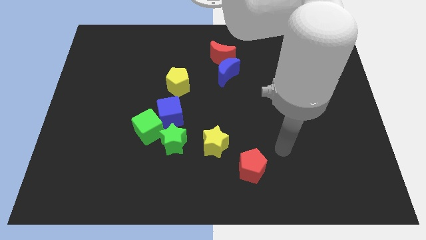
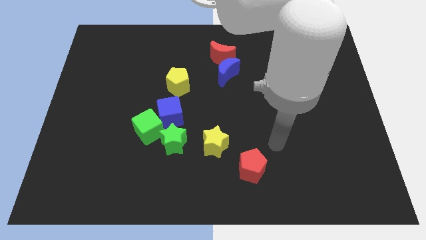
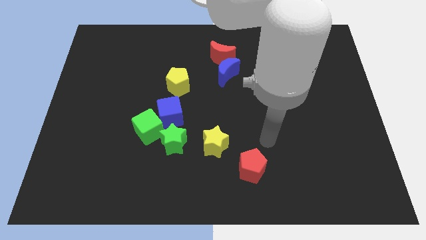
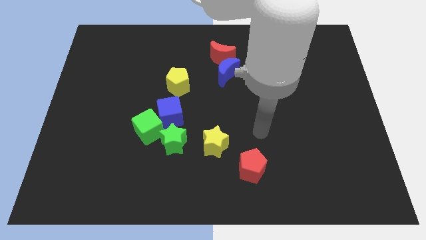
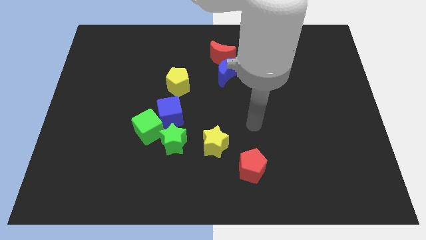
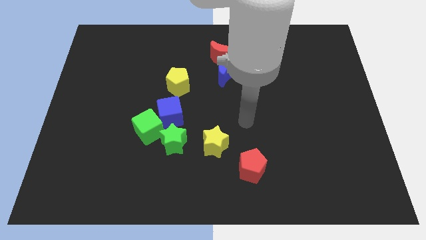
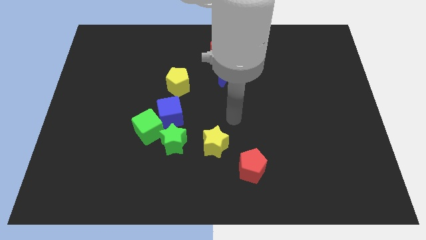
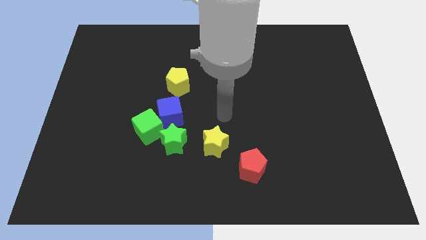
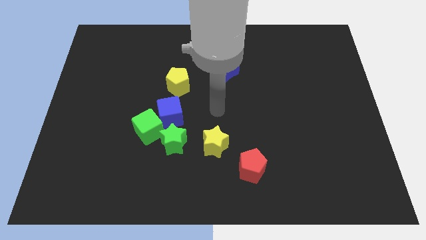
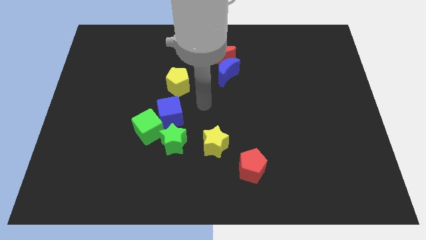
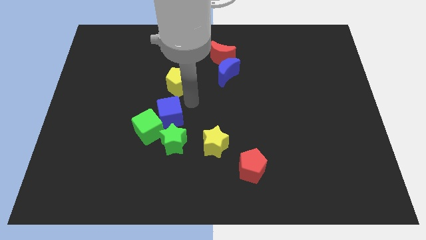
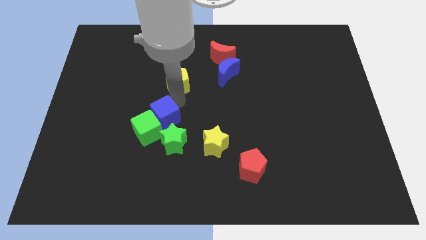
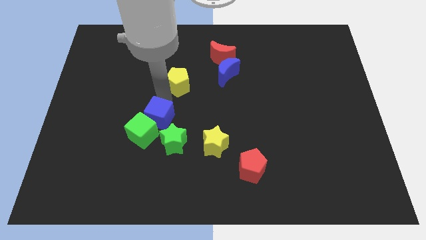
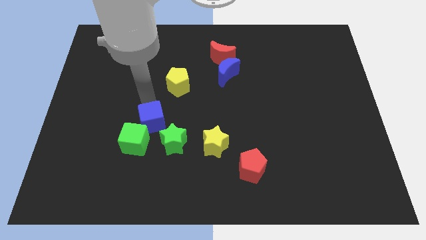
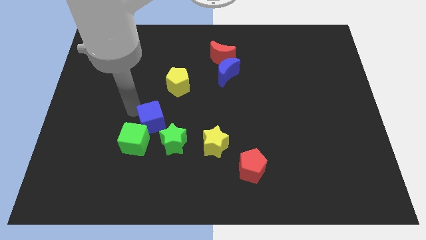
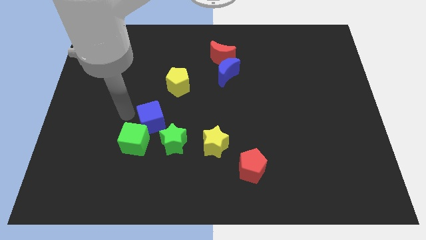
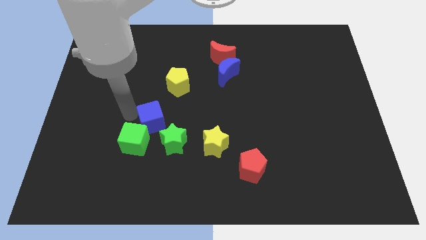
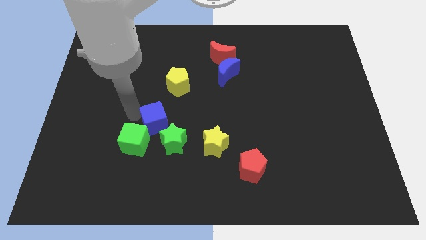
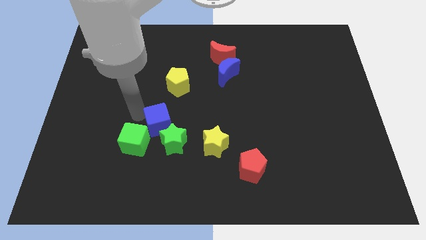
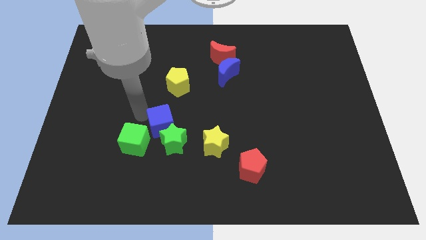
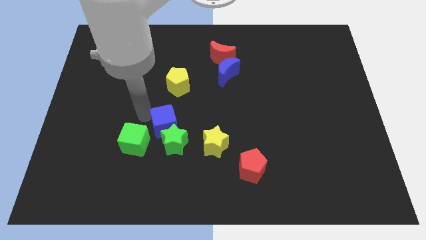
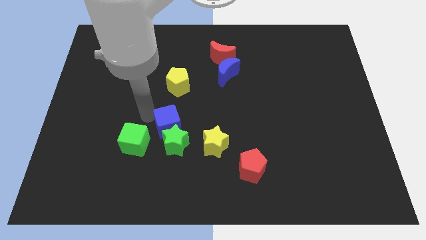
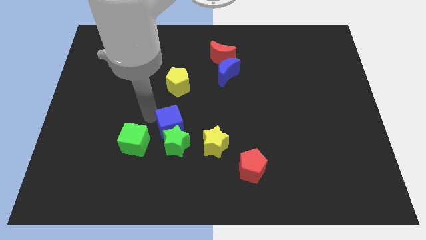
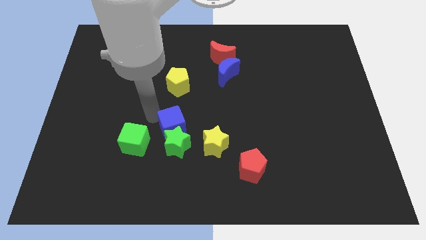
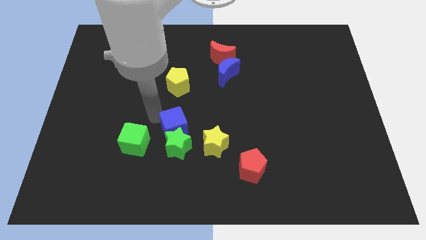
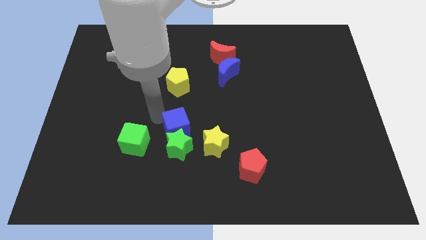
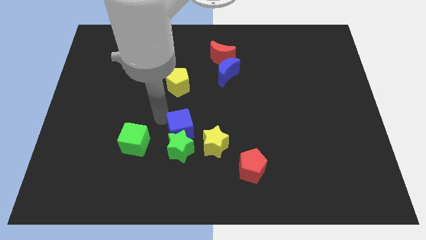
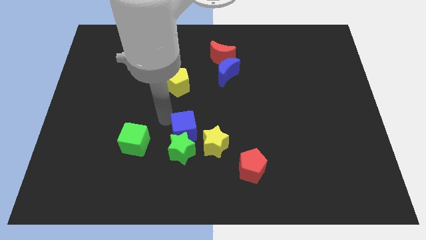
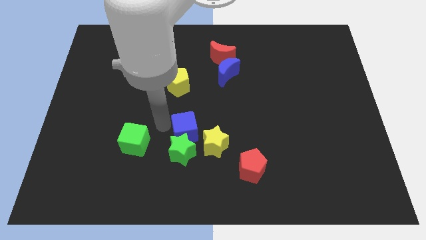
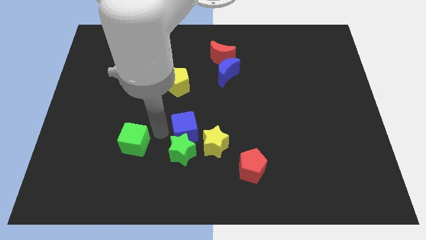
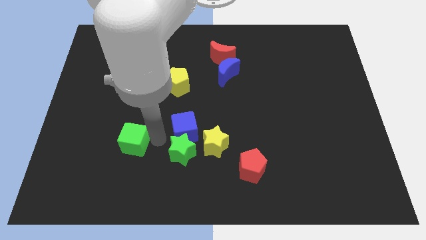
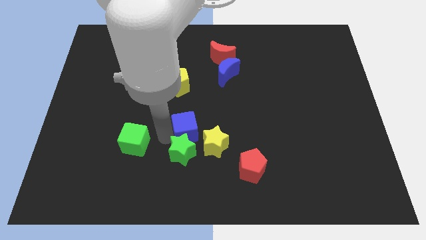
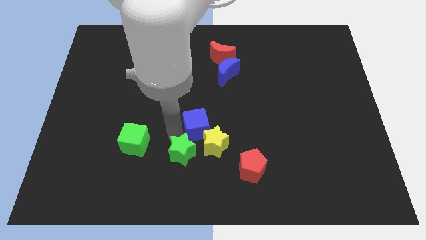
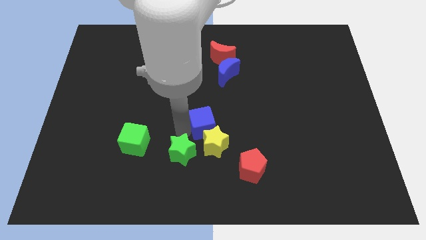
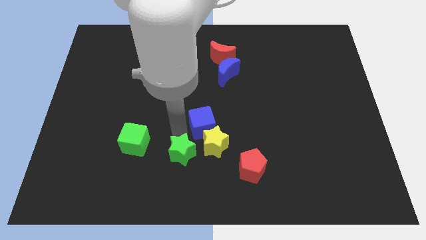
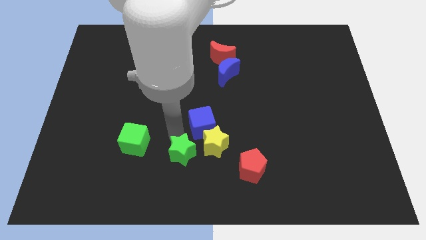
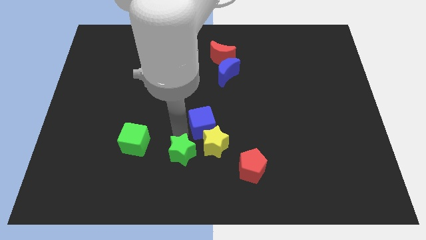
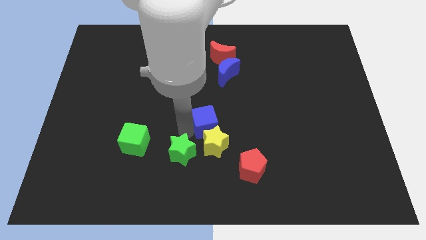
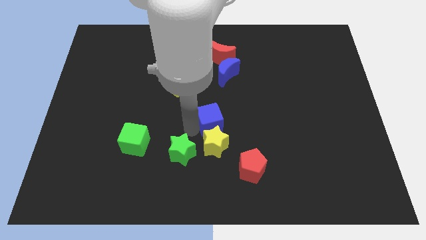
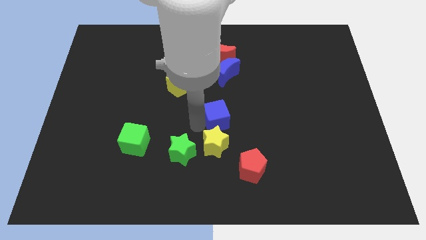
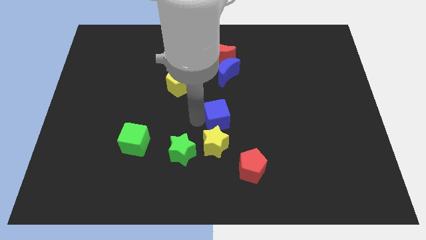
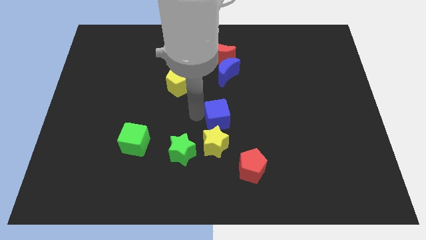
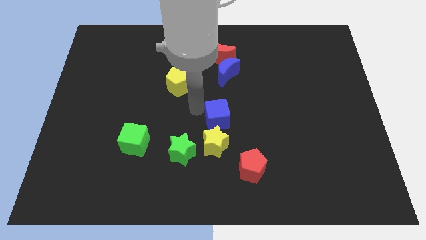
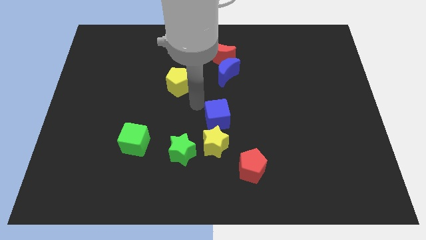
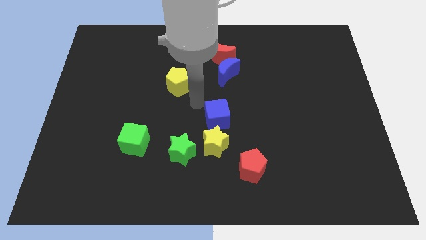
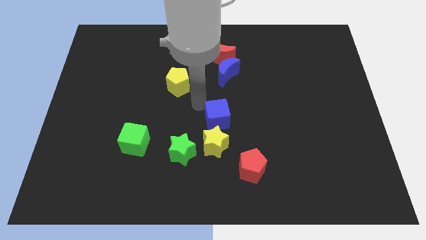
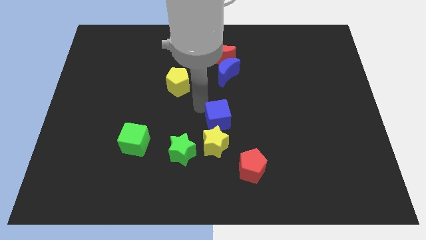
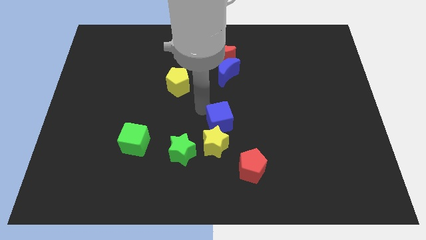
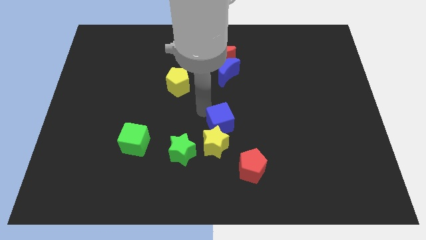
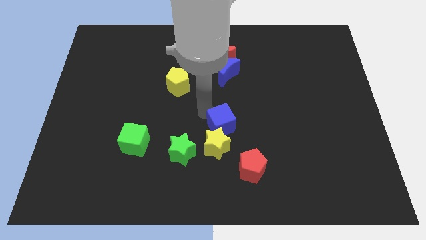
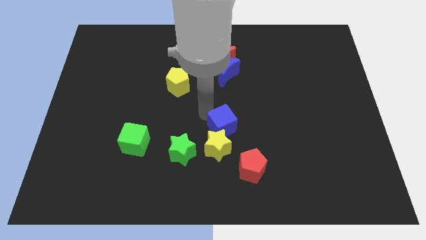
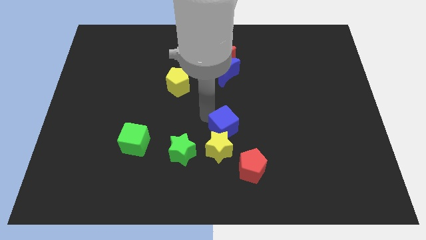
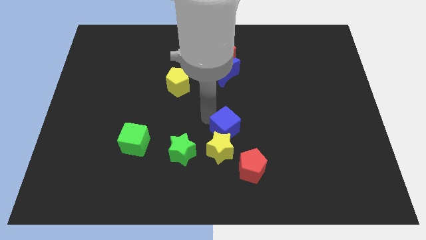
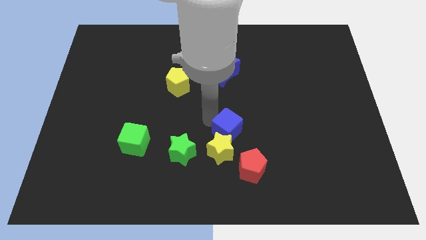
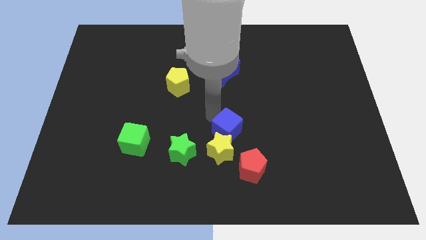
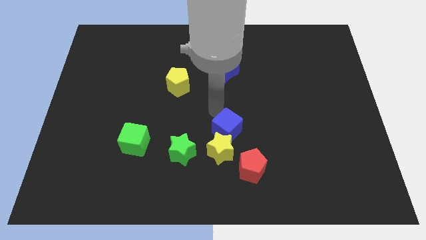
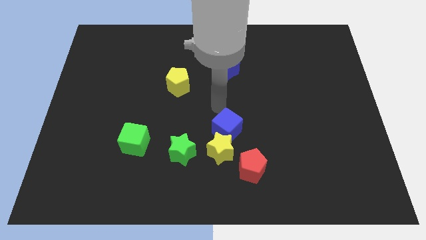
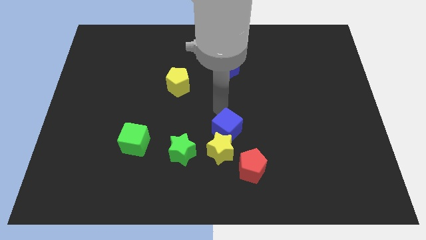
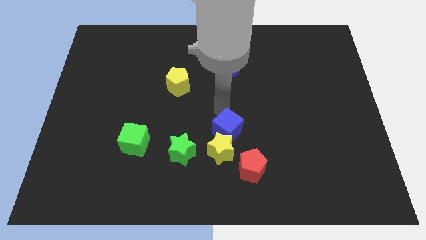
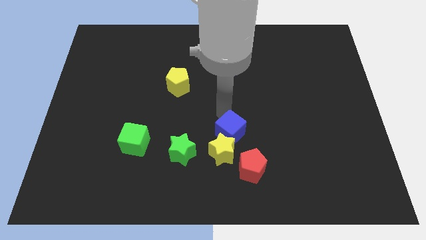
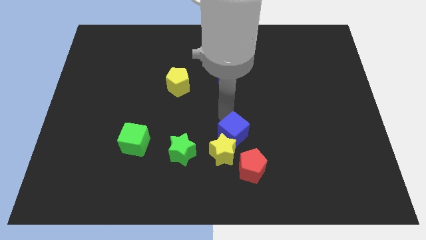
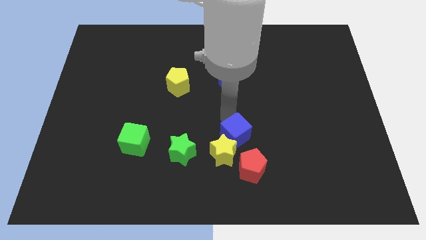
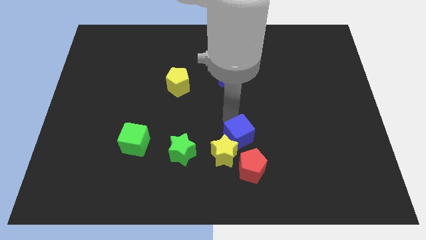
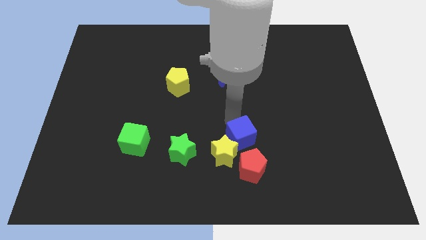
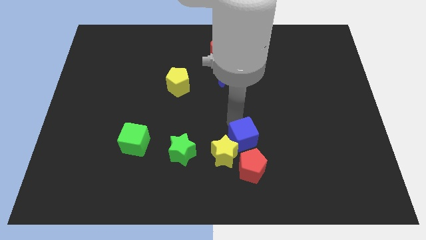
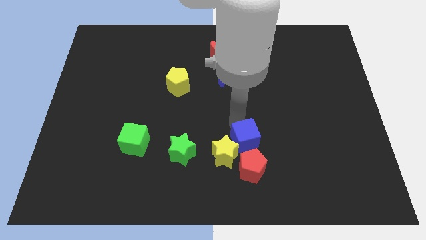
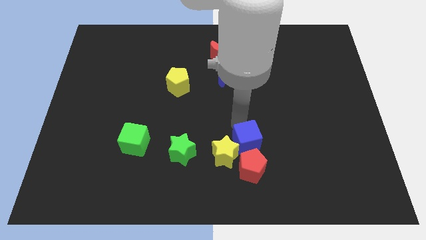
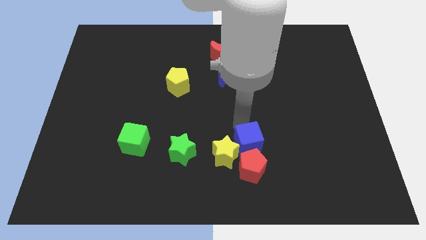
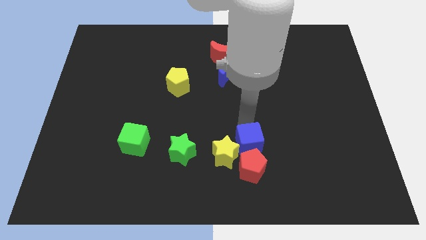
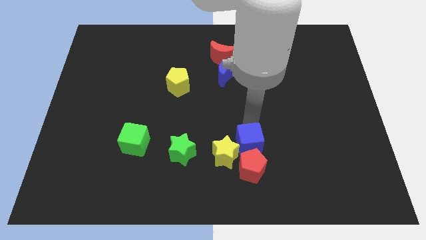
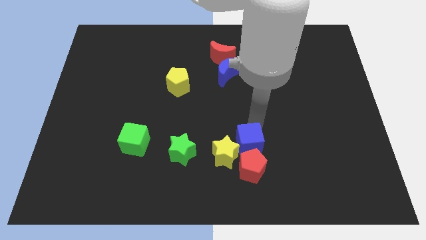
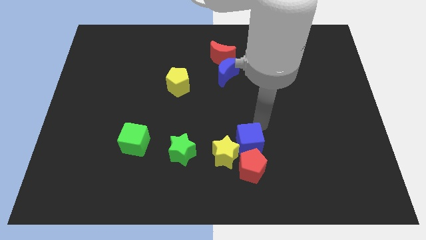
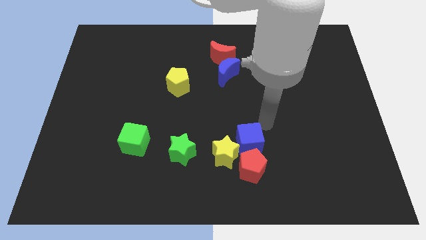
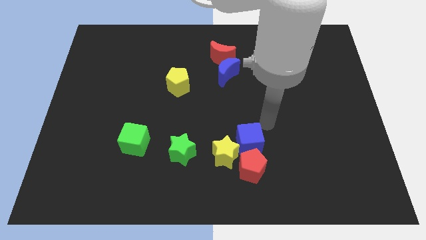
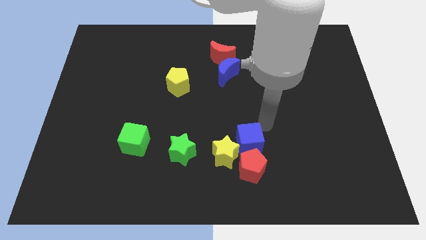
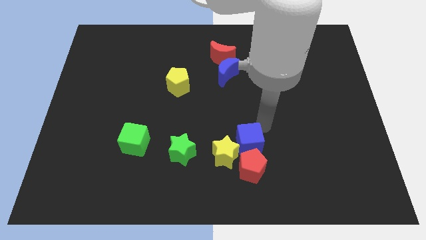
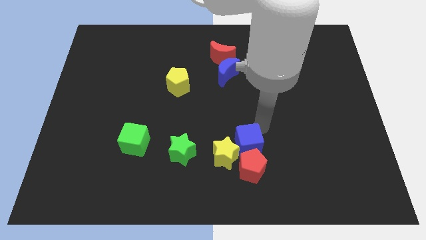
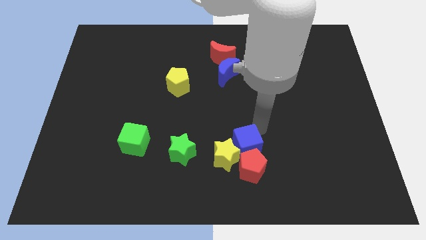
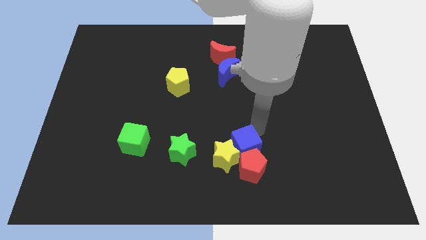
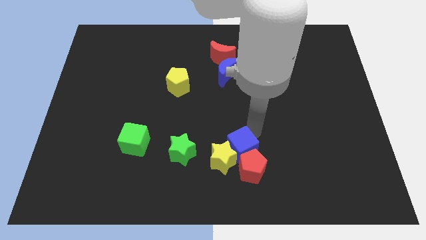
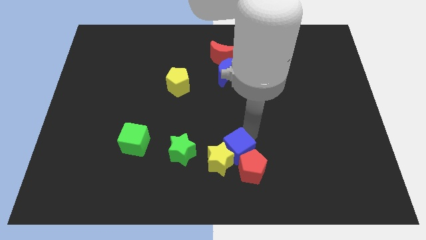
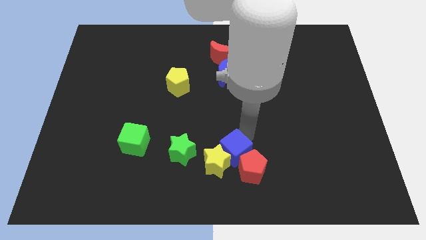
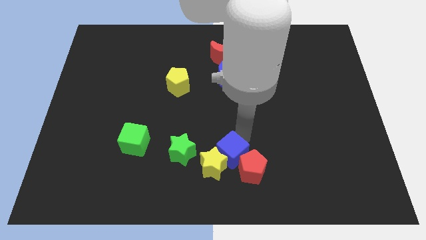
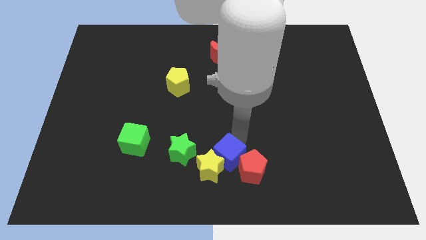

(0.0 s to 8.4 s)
push the blue cube to the bottom
